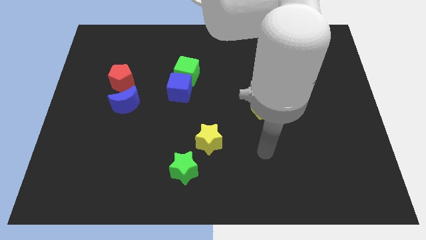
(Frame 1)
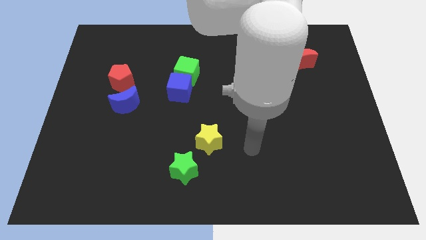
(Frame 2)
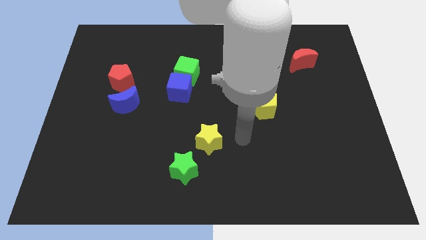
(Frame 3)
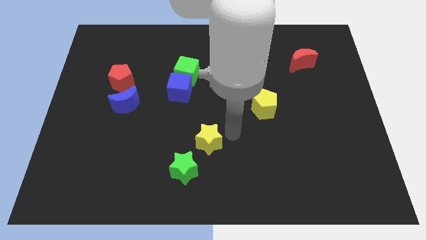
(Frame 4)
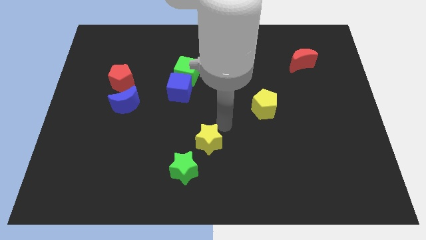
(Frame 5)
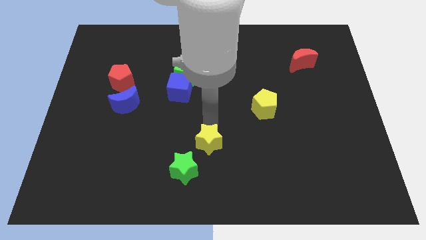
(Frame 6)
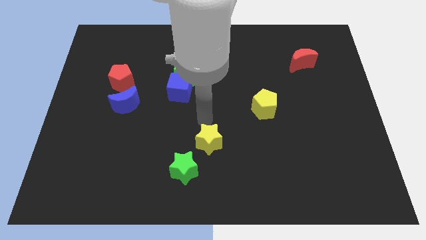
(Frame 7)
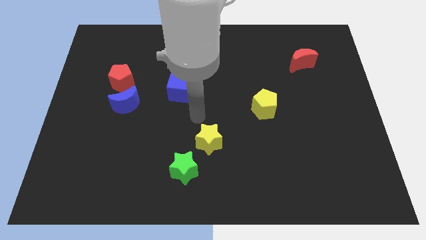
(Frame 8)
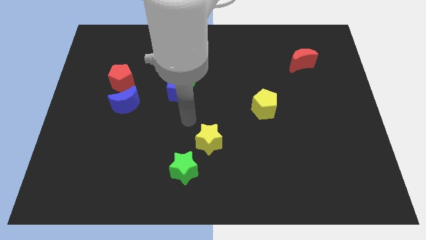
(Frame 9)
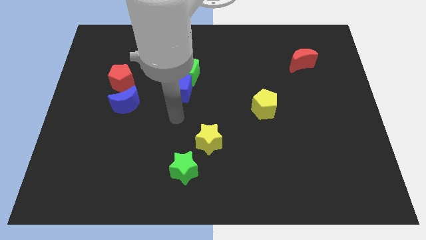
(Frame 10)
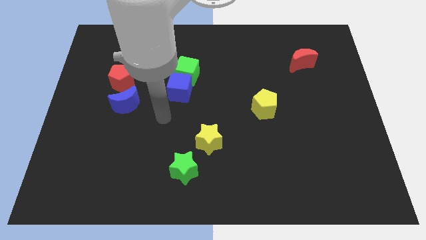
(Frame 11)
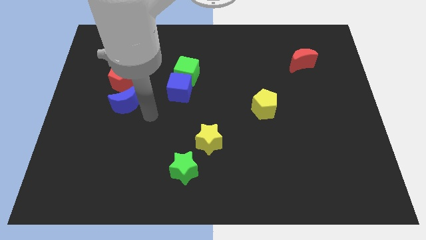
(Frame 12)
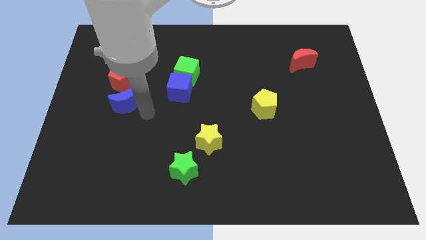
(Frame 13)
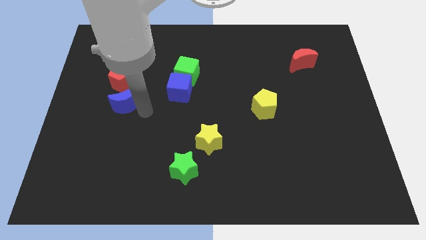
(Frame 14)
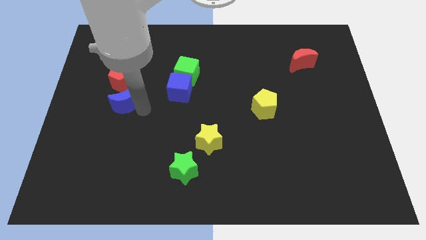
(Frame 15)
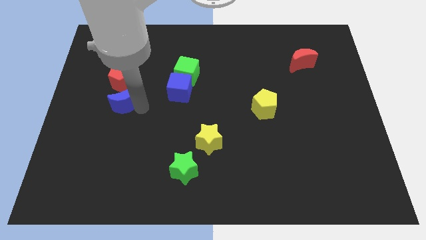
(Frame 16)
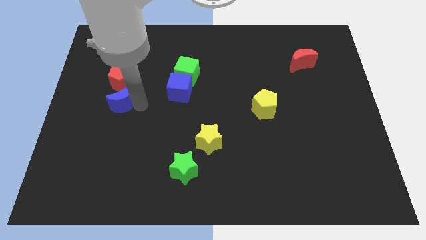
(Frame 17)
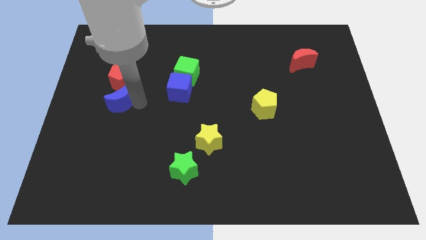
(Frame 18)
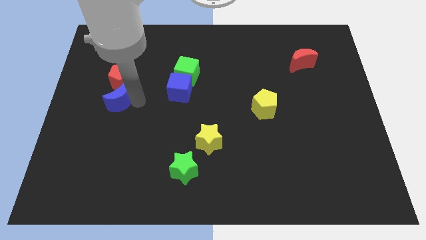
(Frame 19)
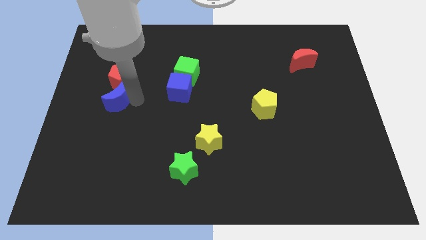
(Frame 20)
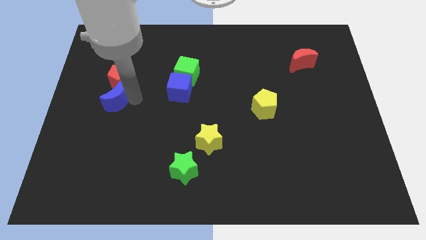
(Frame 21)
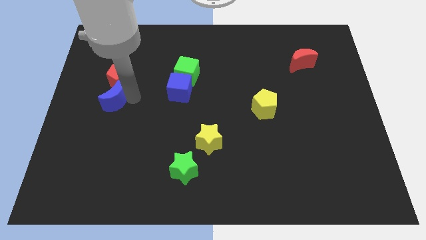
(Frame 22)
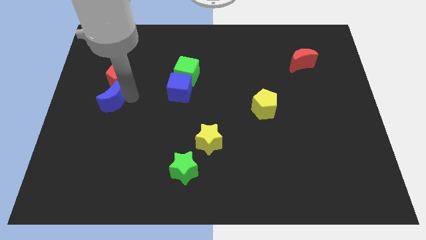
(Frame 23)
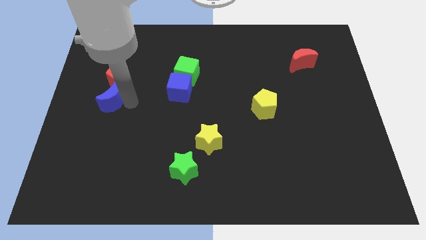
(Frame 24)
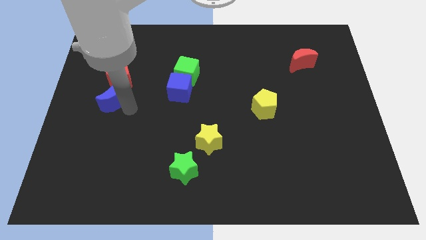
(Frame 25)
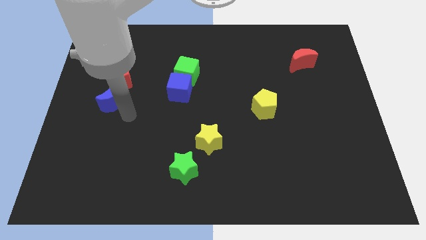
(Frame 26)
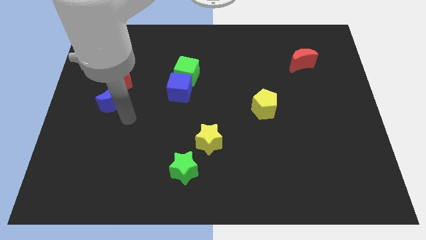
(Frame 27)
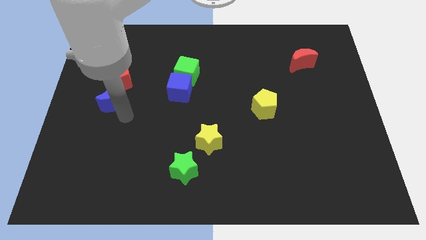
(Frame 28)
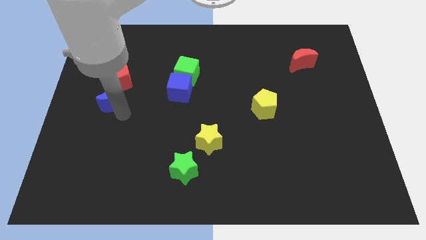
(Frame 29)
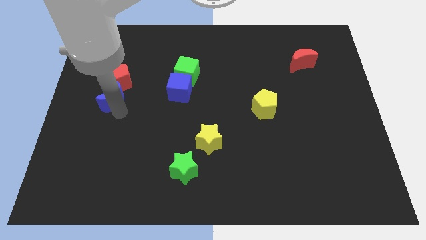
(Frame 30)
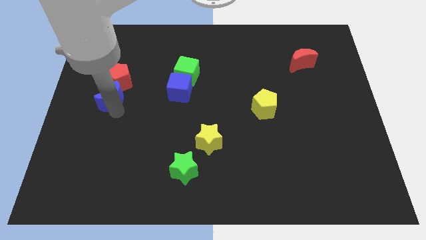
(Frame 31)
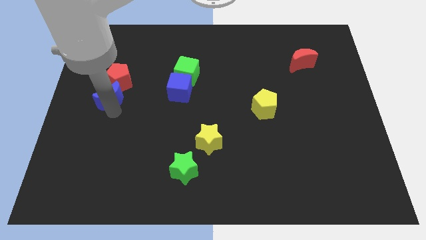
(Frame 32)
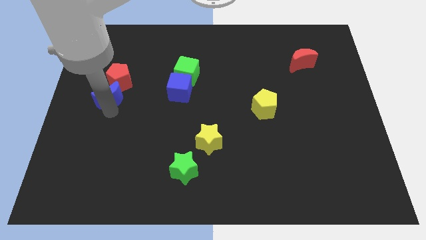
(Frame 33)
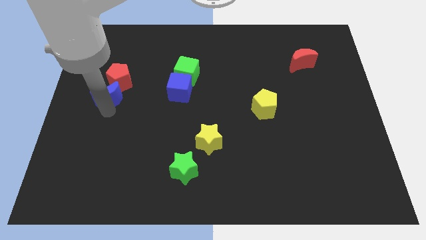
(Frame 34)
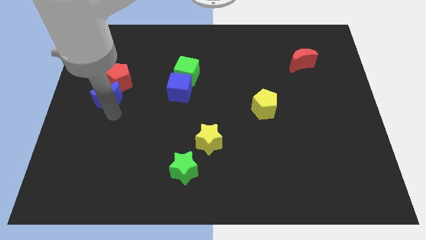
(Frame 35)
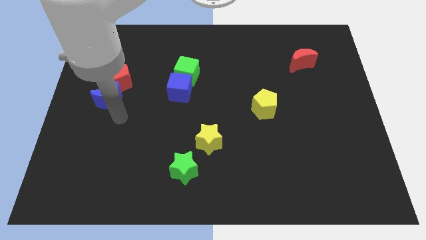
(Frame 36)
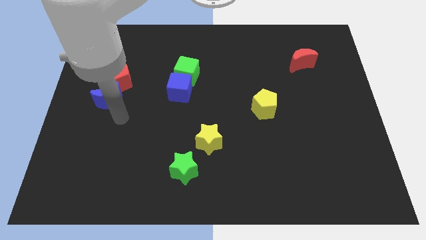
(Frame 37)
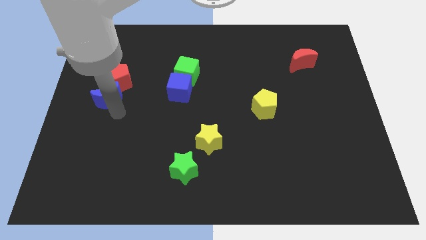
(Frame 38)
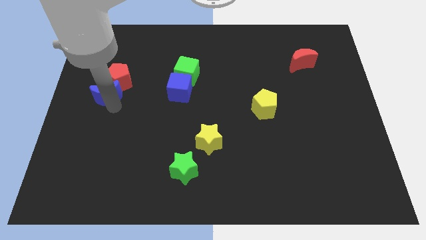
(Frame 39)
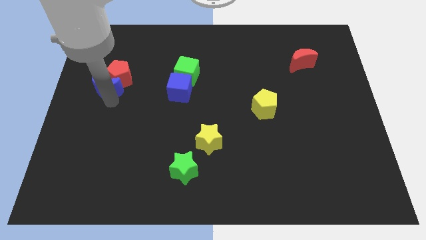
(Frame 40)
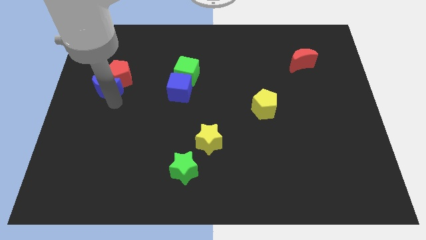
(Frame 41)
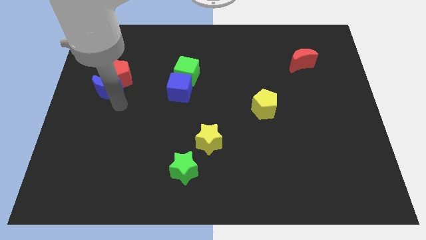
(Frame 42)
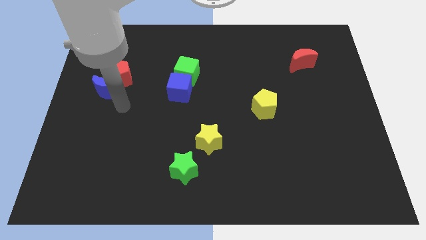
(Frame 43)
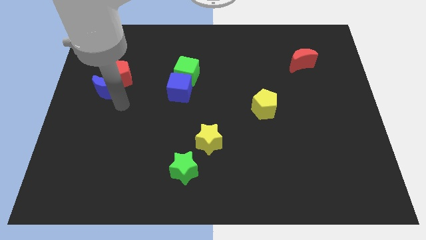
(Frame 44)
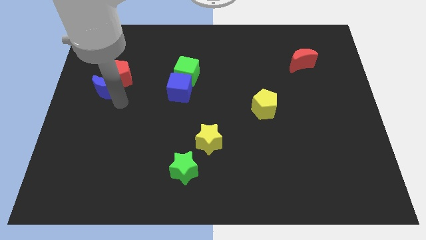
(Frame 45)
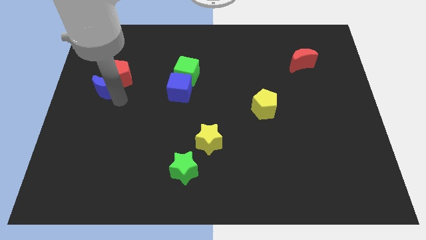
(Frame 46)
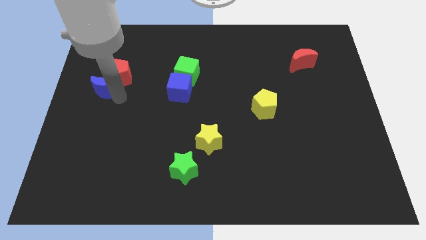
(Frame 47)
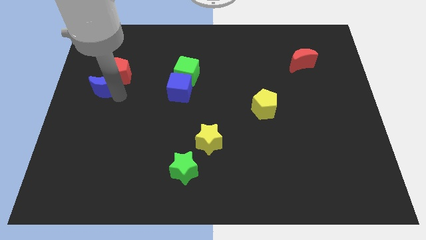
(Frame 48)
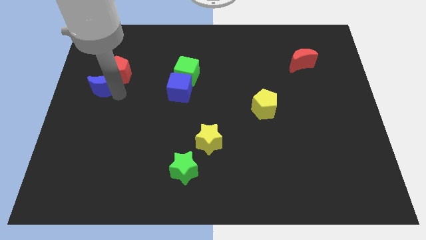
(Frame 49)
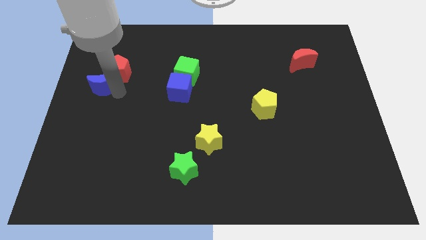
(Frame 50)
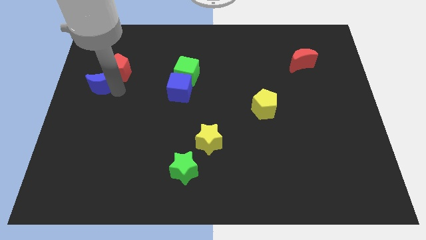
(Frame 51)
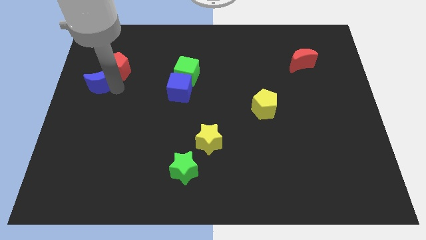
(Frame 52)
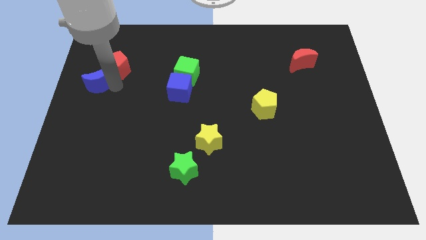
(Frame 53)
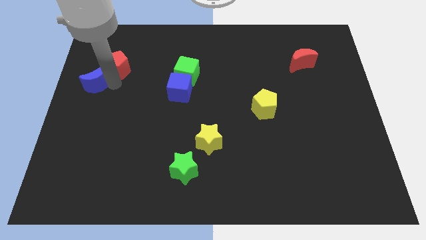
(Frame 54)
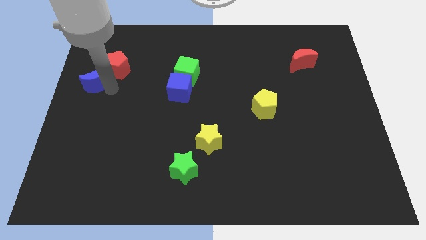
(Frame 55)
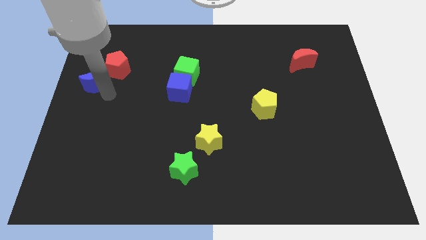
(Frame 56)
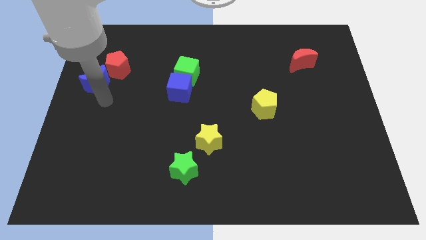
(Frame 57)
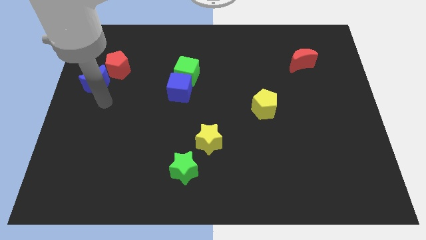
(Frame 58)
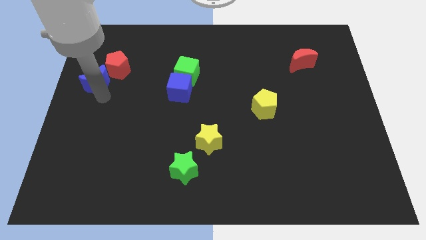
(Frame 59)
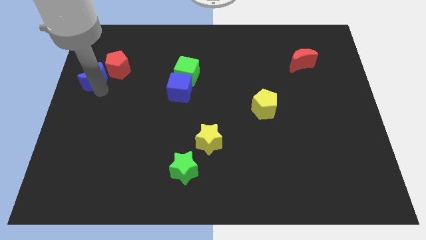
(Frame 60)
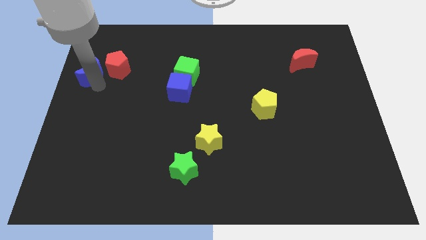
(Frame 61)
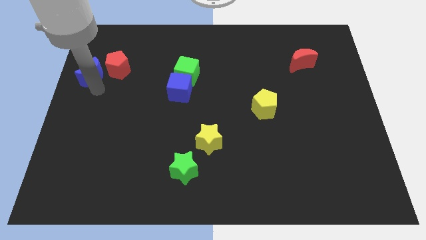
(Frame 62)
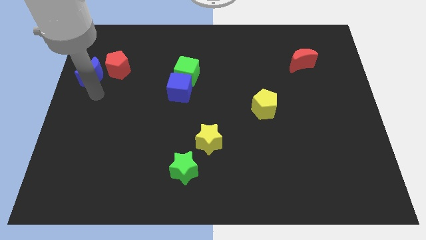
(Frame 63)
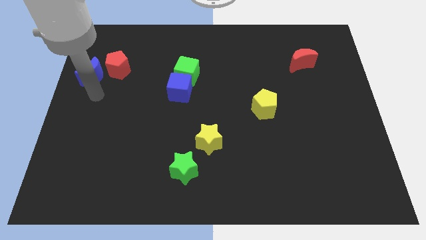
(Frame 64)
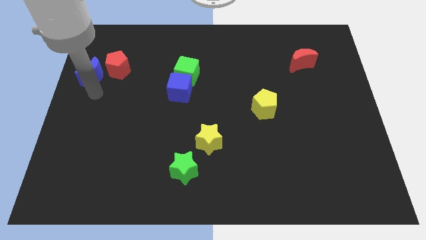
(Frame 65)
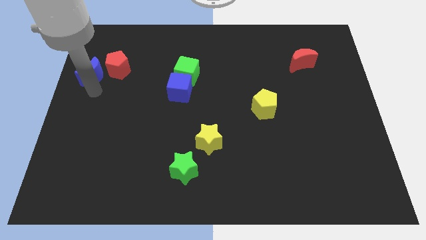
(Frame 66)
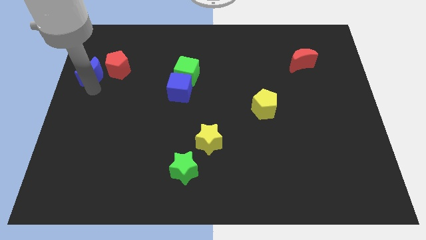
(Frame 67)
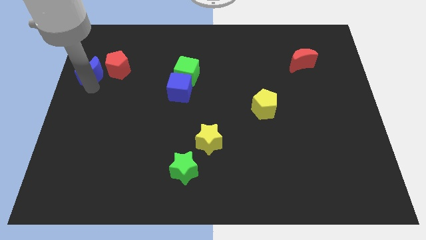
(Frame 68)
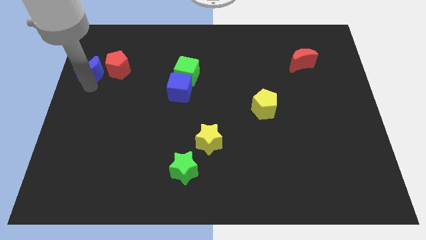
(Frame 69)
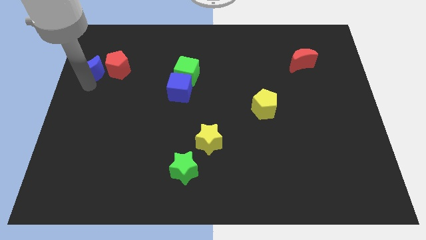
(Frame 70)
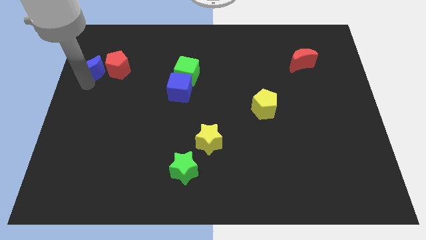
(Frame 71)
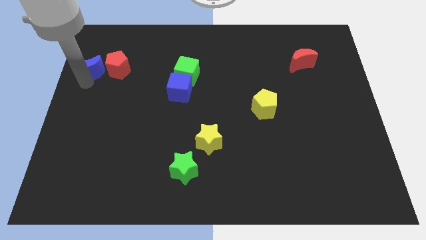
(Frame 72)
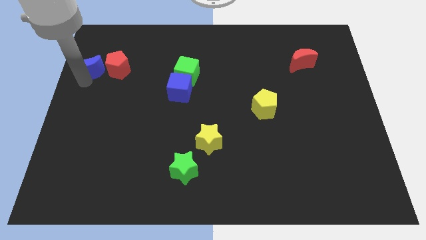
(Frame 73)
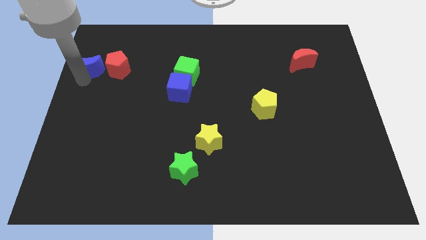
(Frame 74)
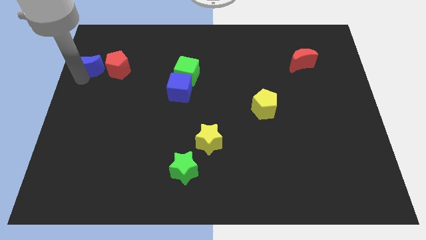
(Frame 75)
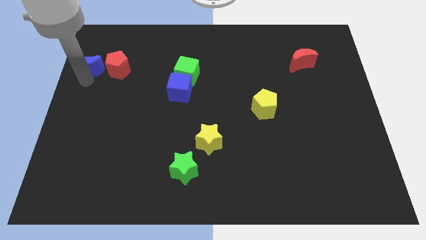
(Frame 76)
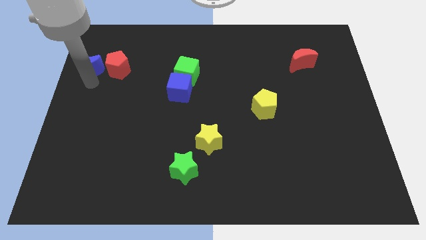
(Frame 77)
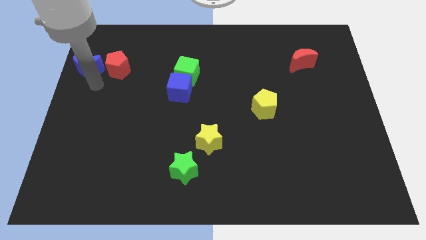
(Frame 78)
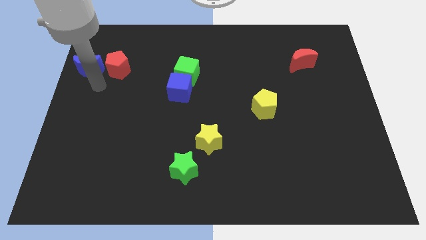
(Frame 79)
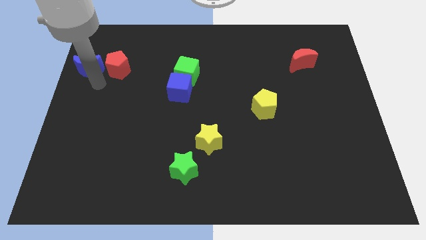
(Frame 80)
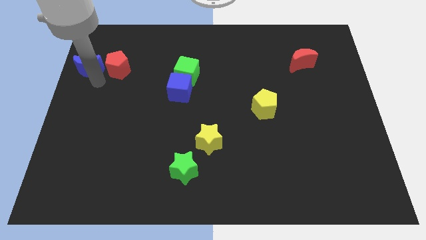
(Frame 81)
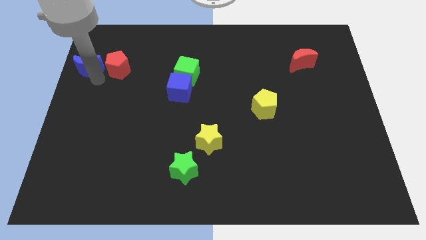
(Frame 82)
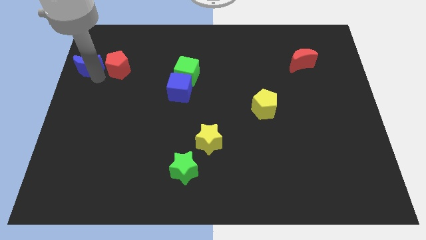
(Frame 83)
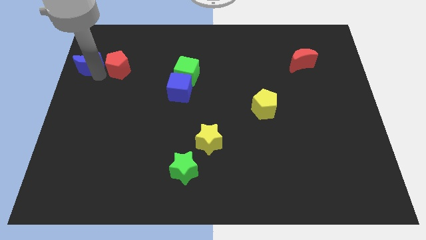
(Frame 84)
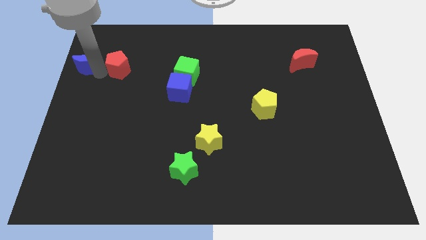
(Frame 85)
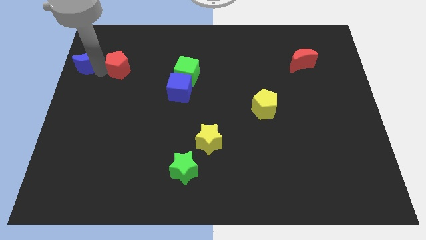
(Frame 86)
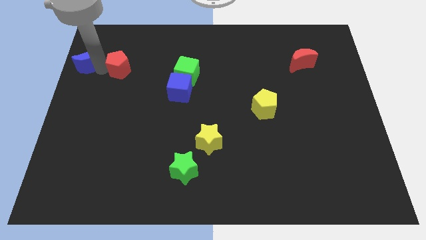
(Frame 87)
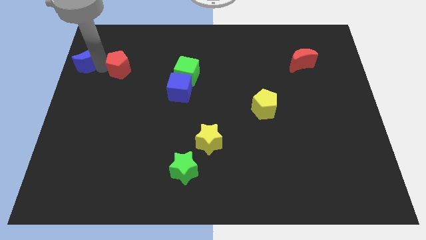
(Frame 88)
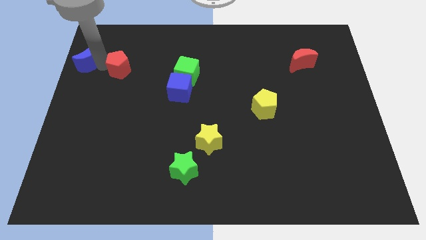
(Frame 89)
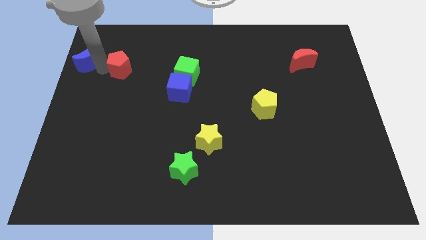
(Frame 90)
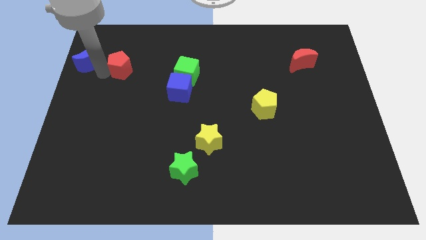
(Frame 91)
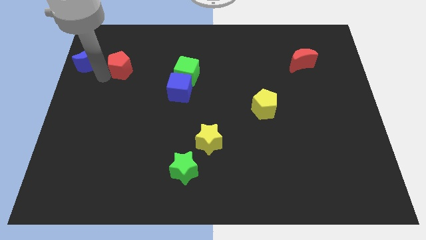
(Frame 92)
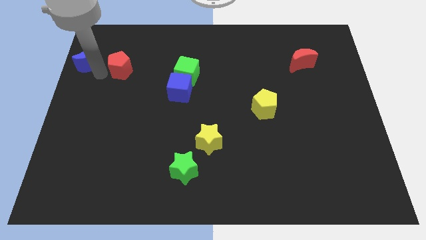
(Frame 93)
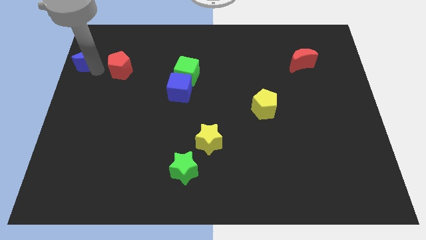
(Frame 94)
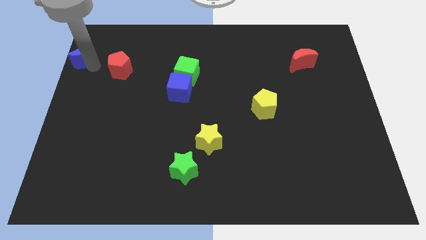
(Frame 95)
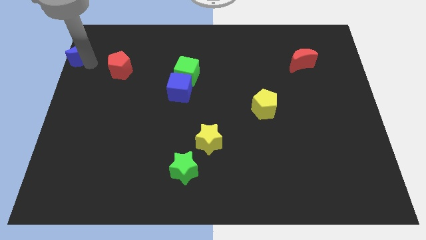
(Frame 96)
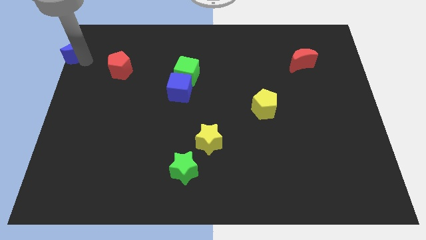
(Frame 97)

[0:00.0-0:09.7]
put the blue moon to the top left corner
